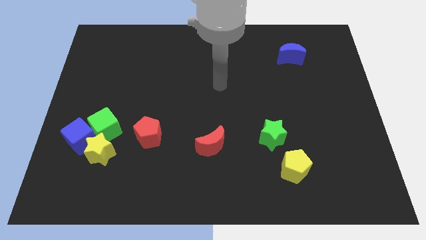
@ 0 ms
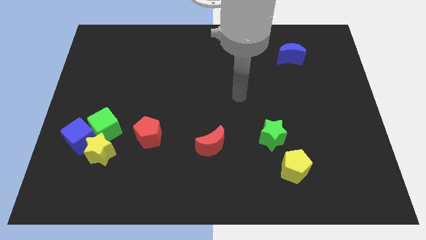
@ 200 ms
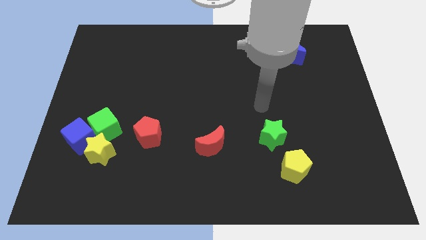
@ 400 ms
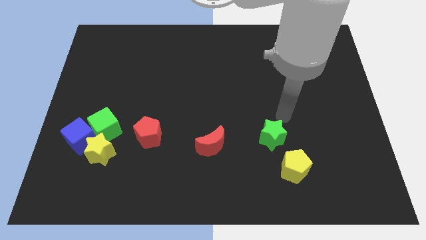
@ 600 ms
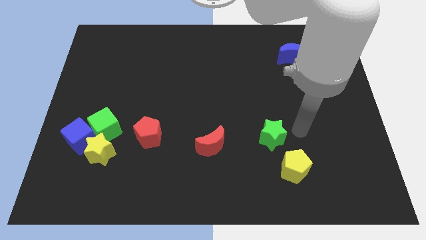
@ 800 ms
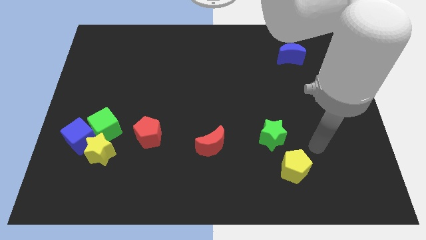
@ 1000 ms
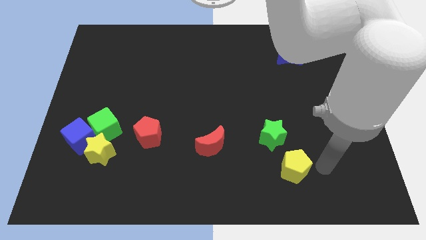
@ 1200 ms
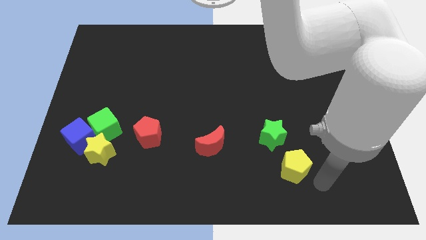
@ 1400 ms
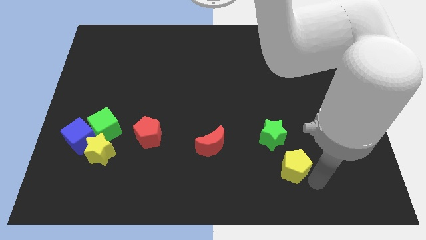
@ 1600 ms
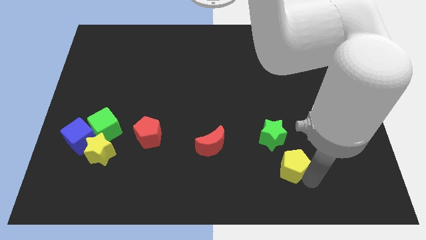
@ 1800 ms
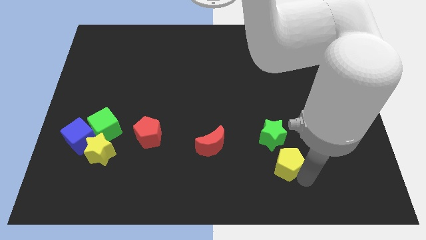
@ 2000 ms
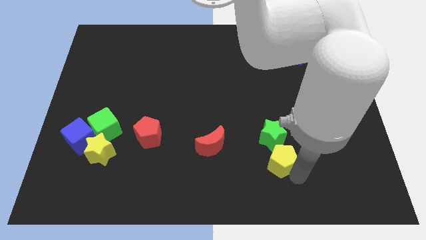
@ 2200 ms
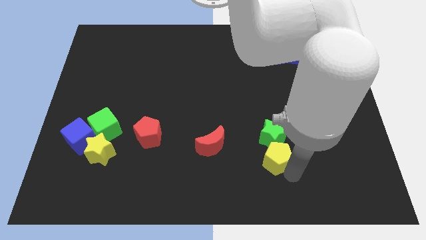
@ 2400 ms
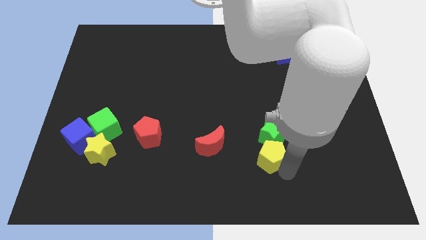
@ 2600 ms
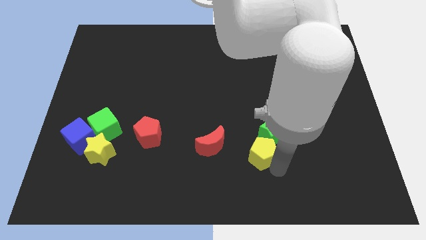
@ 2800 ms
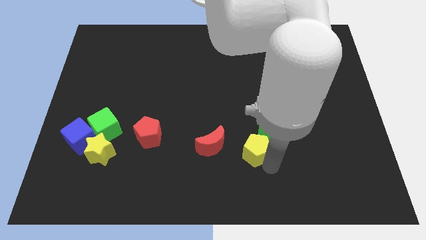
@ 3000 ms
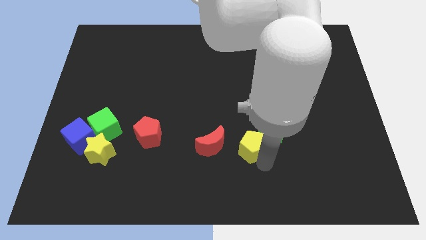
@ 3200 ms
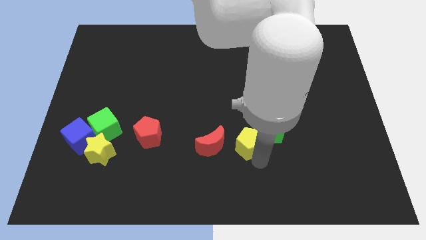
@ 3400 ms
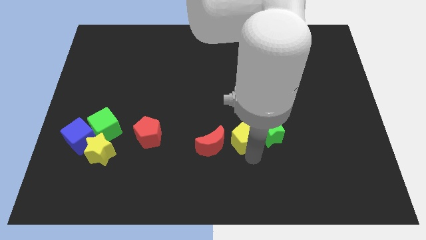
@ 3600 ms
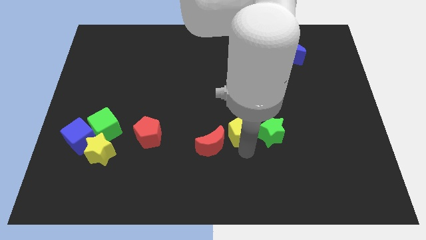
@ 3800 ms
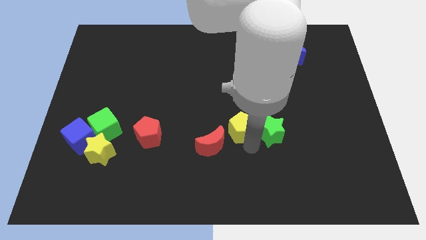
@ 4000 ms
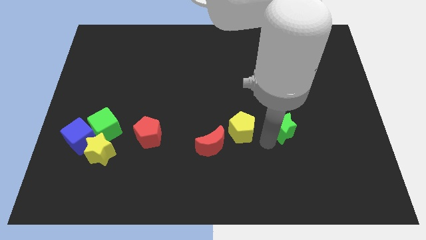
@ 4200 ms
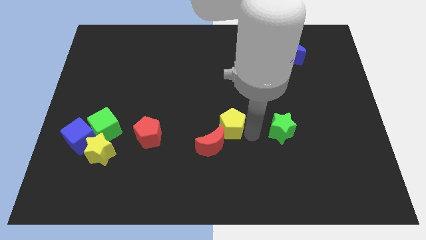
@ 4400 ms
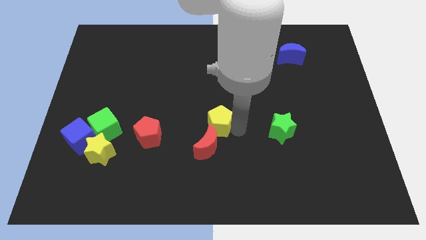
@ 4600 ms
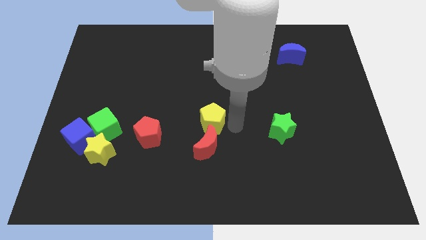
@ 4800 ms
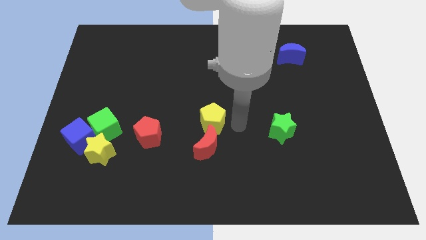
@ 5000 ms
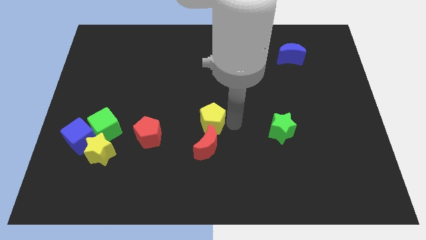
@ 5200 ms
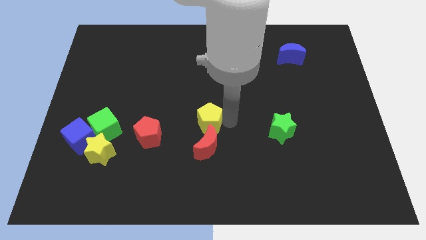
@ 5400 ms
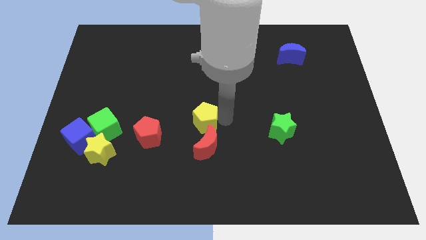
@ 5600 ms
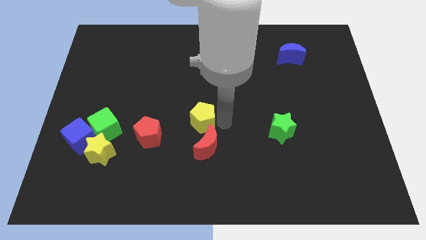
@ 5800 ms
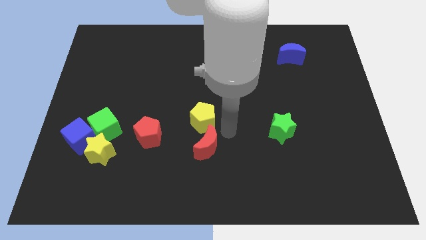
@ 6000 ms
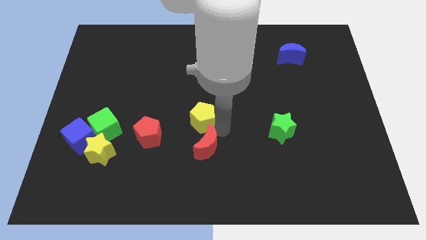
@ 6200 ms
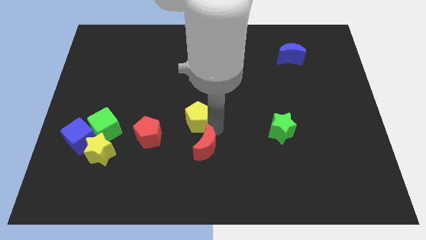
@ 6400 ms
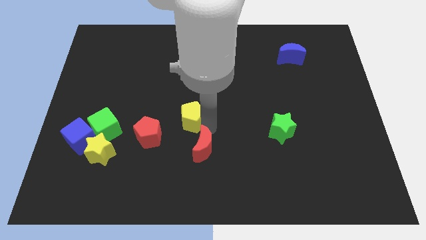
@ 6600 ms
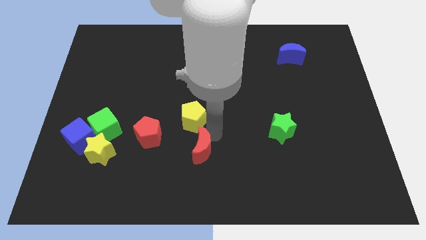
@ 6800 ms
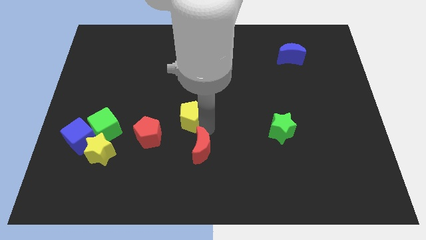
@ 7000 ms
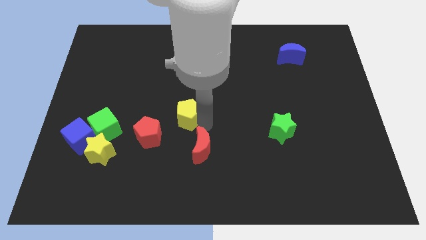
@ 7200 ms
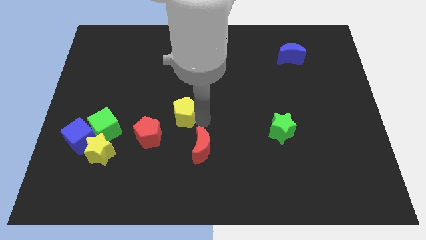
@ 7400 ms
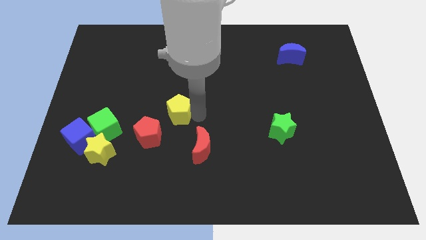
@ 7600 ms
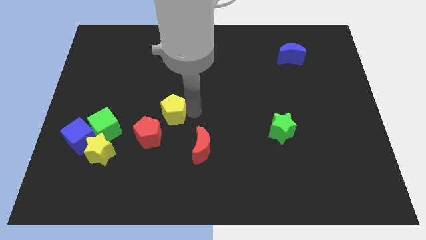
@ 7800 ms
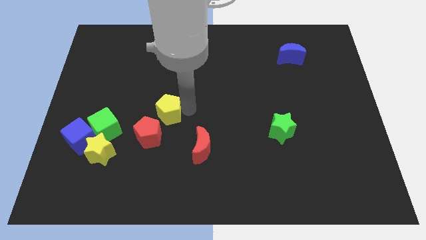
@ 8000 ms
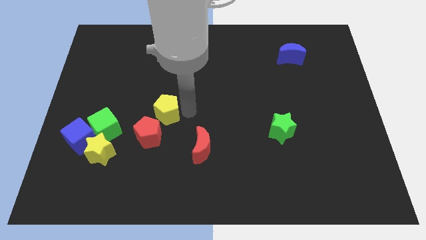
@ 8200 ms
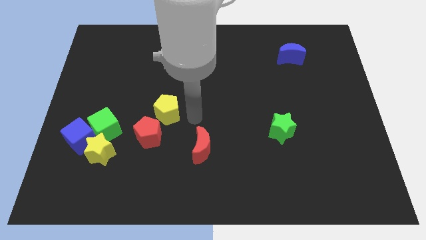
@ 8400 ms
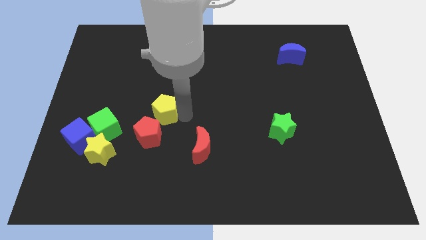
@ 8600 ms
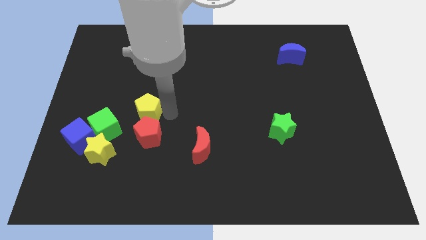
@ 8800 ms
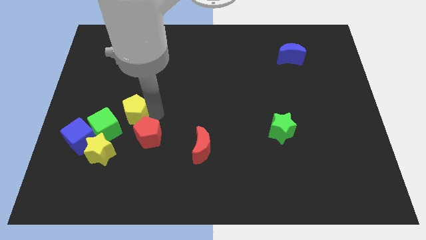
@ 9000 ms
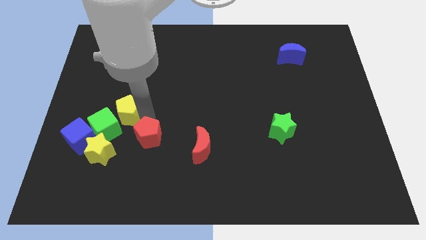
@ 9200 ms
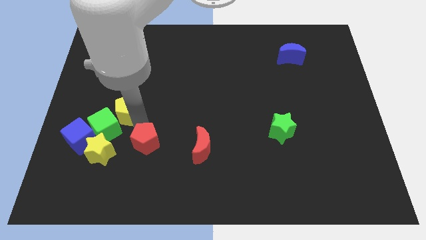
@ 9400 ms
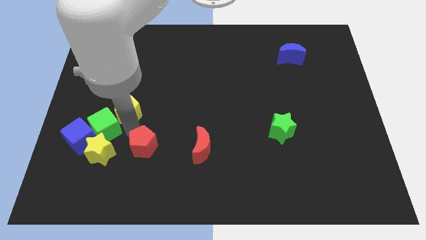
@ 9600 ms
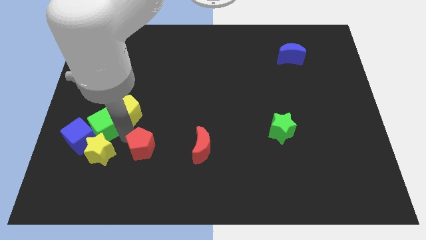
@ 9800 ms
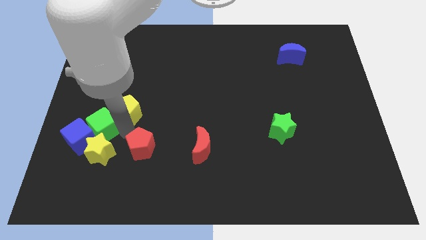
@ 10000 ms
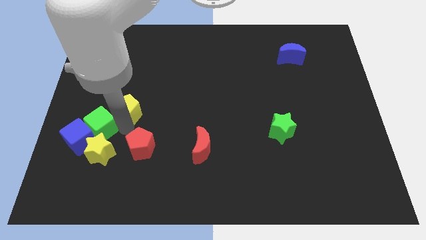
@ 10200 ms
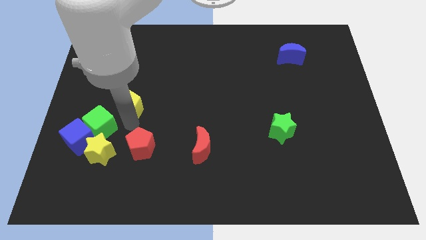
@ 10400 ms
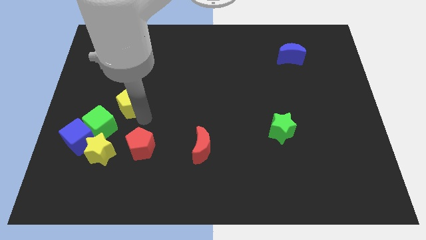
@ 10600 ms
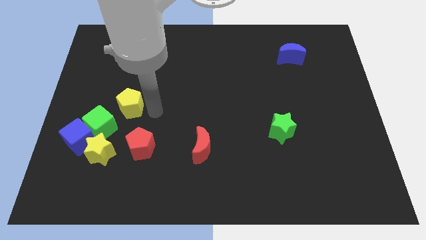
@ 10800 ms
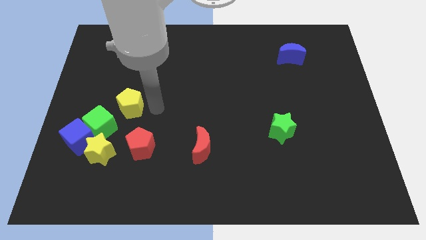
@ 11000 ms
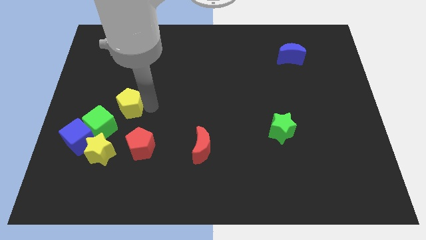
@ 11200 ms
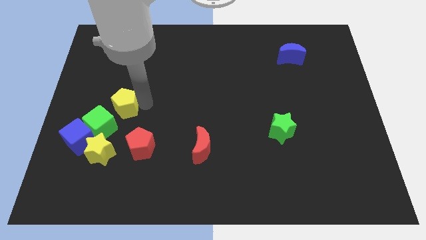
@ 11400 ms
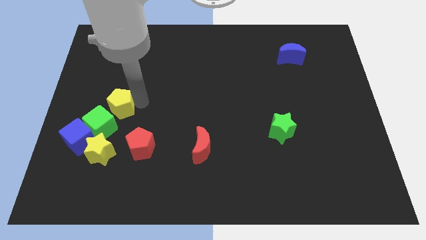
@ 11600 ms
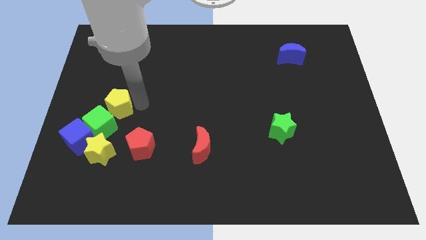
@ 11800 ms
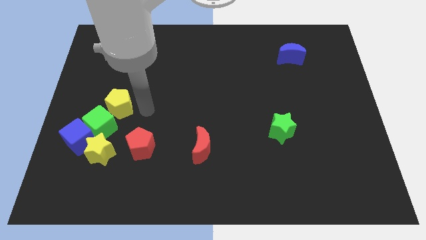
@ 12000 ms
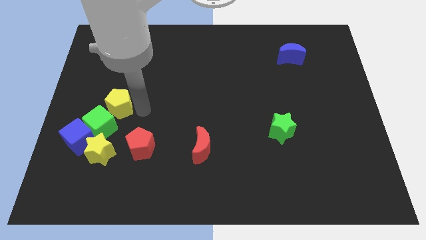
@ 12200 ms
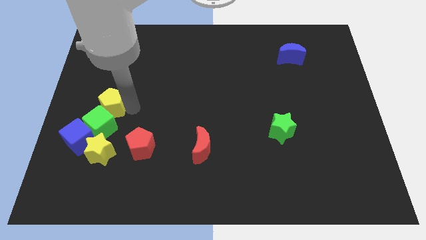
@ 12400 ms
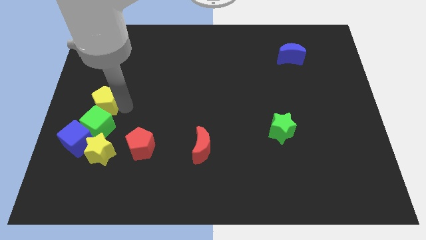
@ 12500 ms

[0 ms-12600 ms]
slide the yellow pentagon to the top of the blue cube

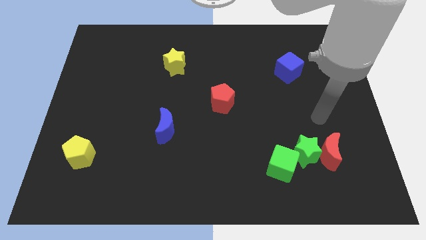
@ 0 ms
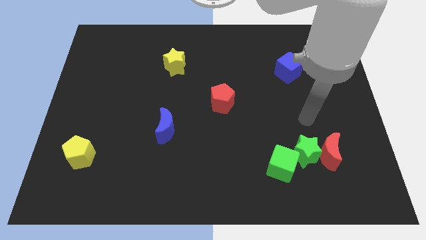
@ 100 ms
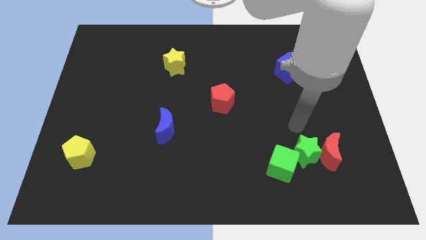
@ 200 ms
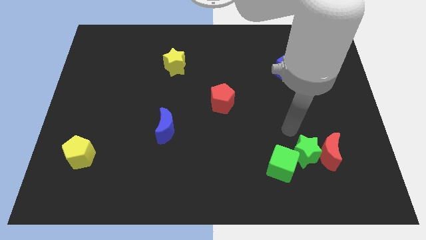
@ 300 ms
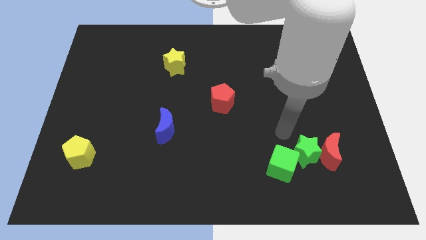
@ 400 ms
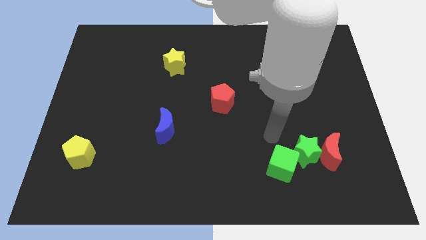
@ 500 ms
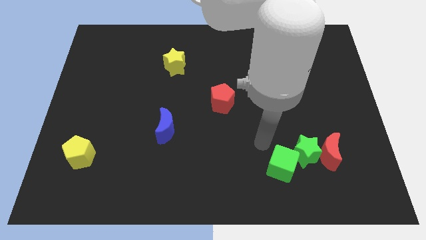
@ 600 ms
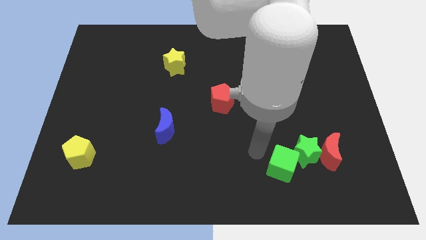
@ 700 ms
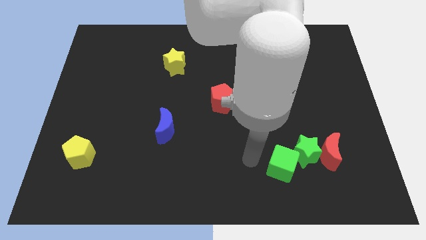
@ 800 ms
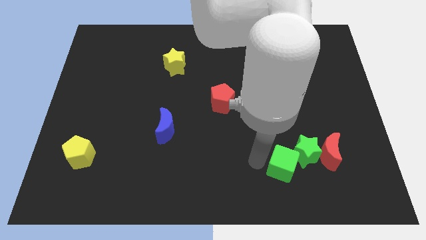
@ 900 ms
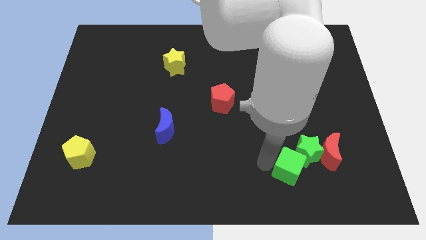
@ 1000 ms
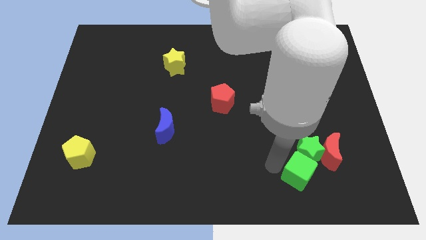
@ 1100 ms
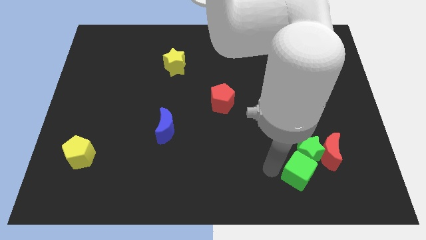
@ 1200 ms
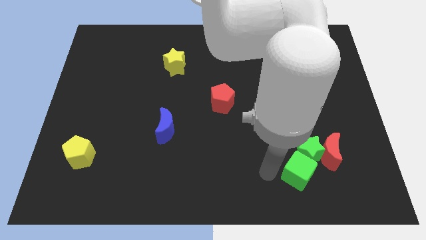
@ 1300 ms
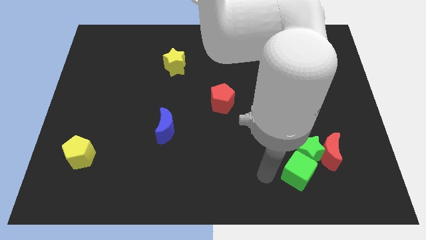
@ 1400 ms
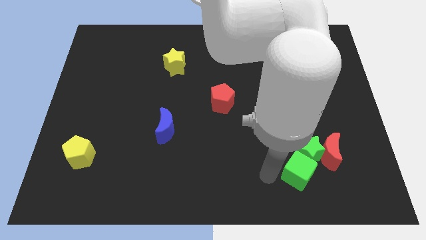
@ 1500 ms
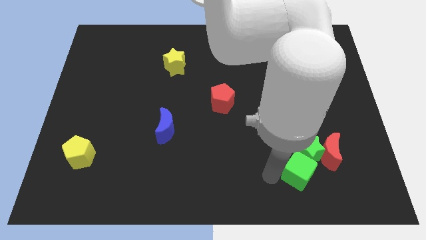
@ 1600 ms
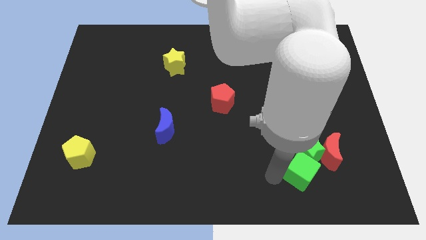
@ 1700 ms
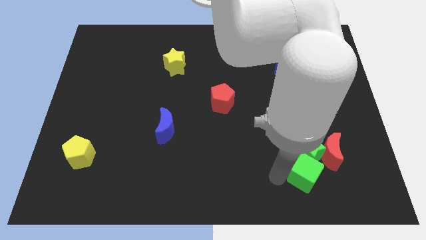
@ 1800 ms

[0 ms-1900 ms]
put the green cube to the bottom right of the green star
